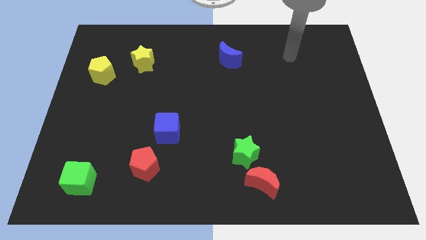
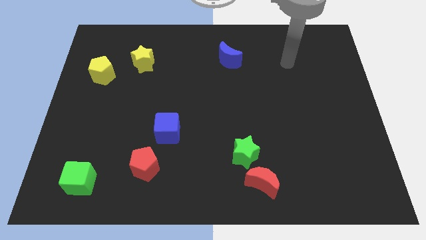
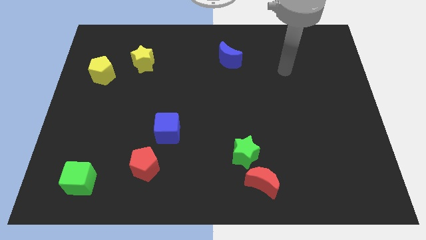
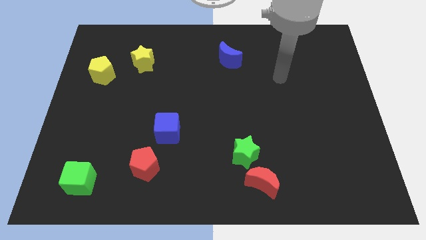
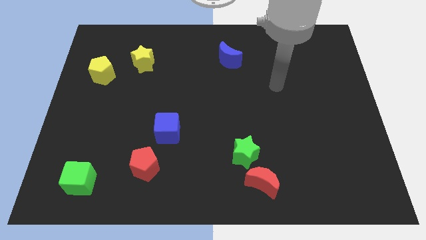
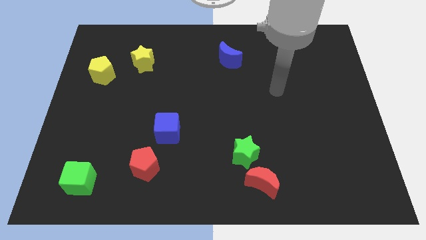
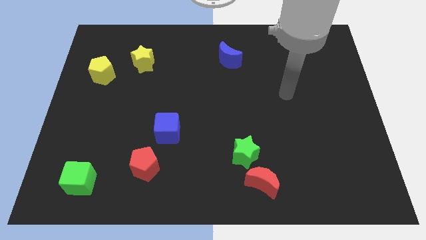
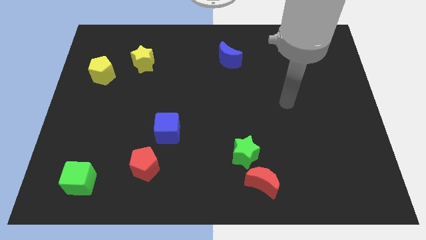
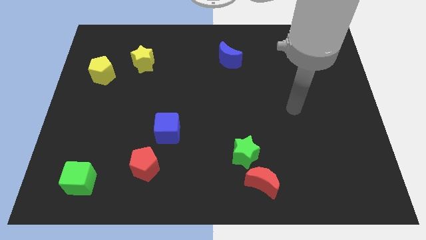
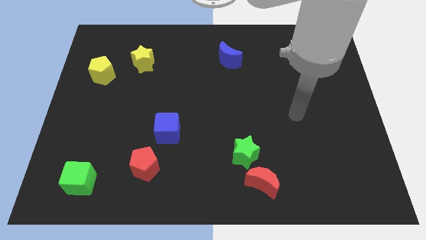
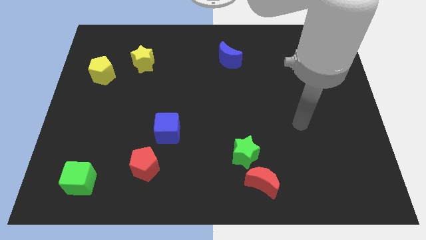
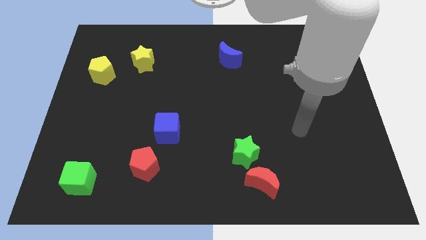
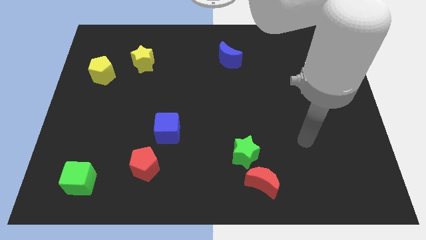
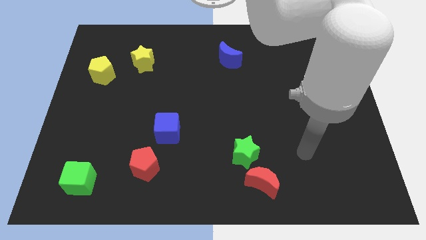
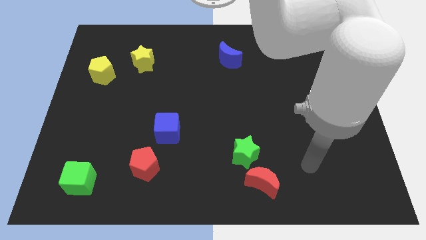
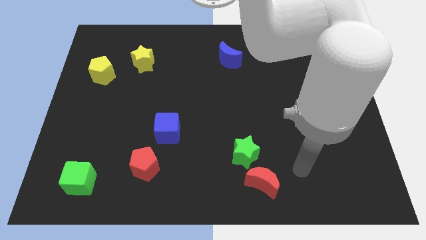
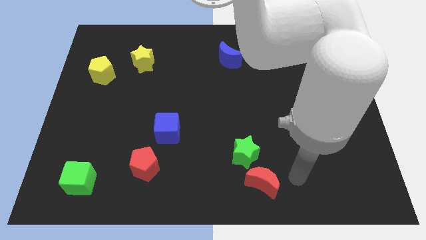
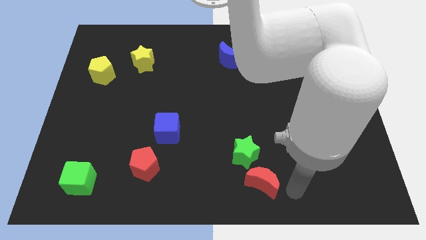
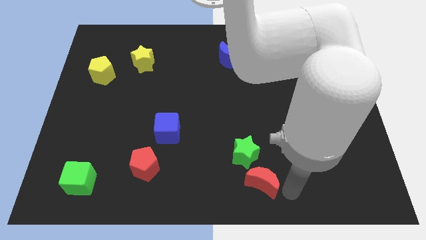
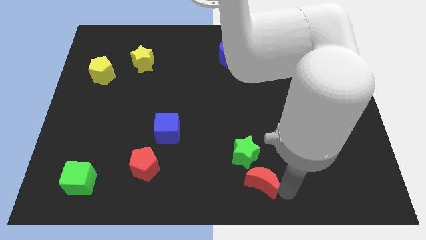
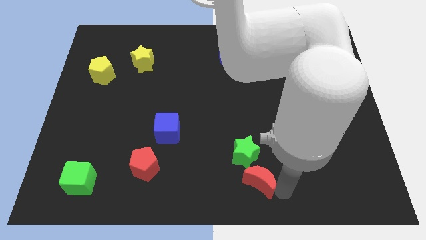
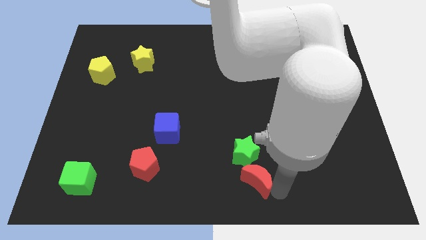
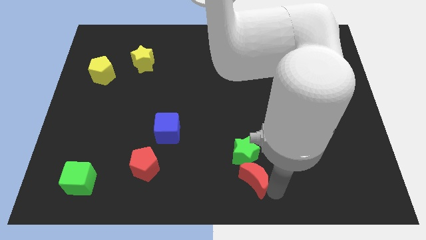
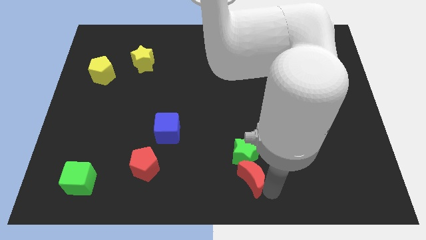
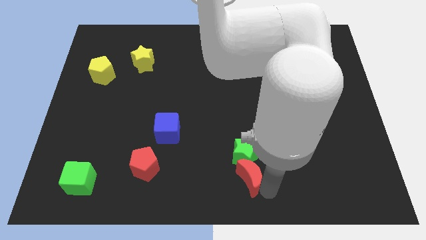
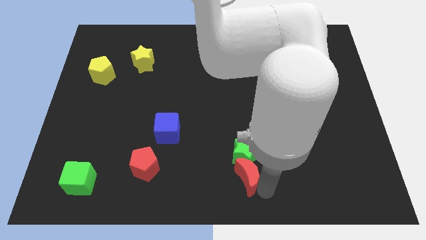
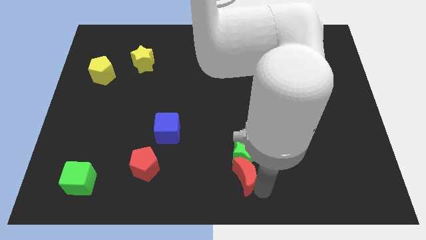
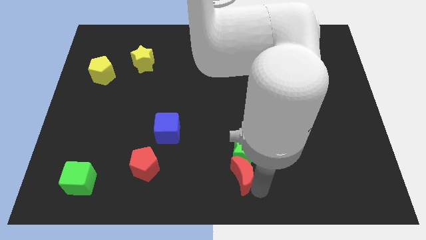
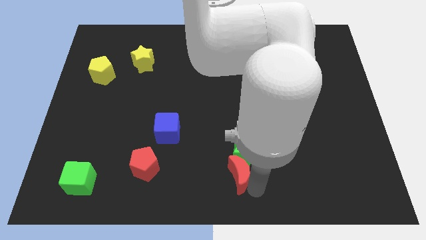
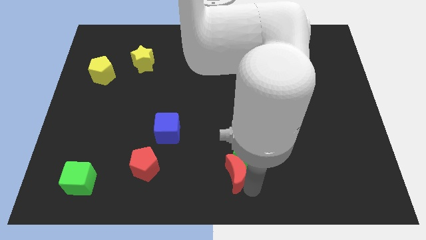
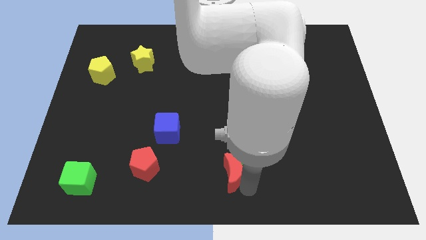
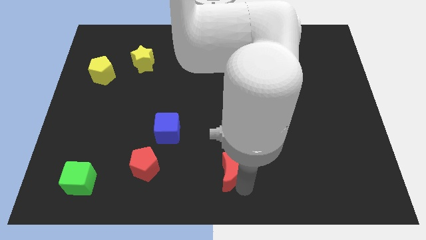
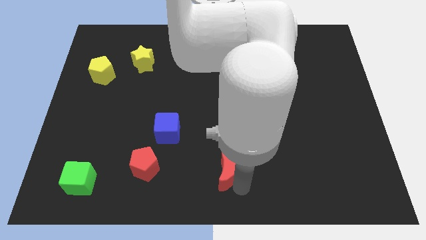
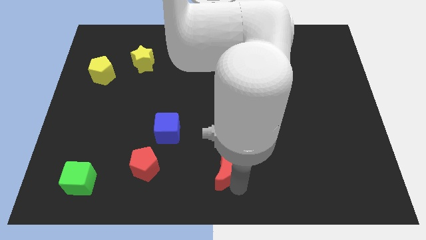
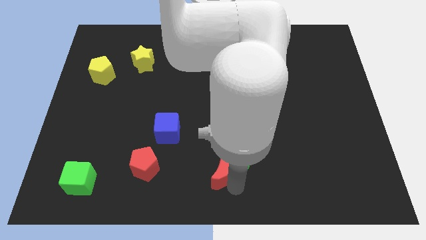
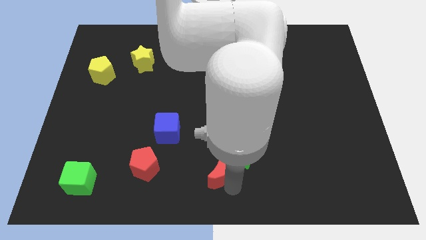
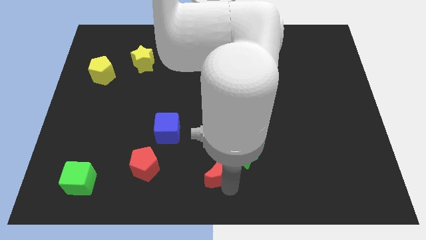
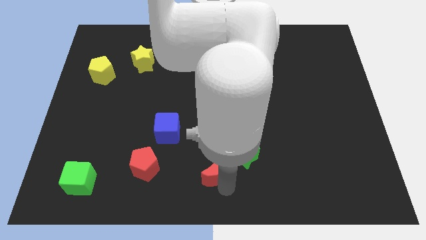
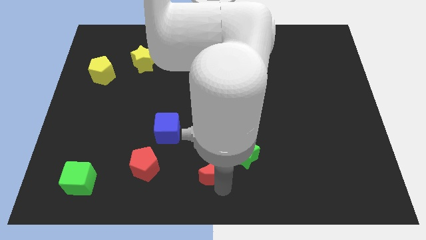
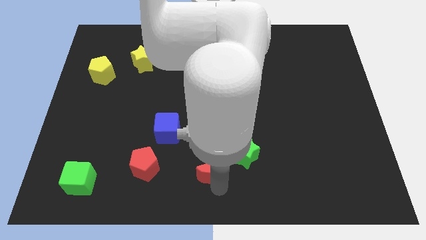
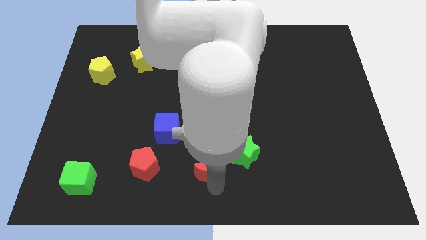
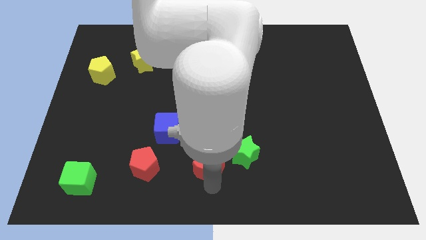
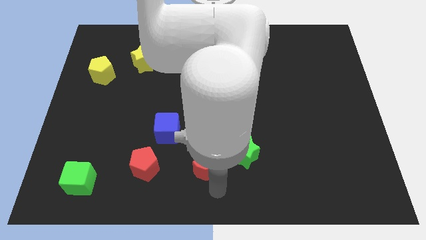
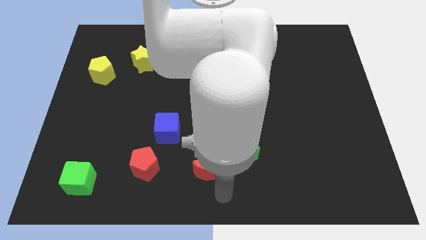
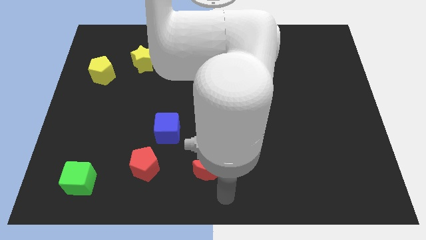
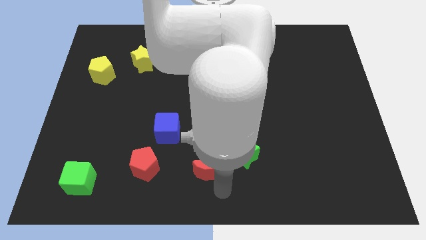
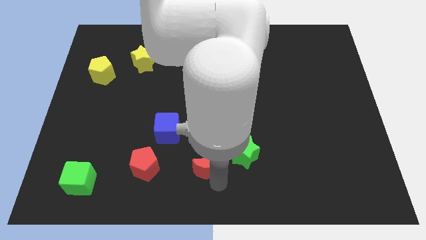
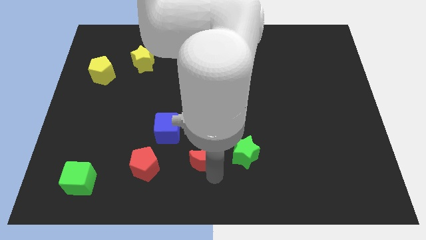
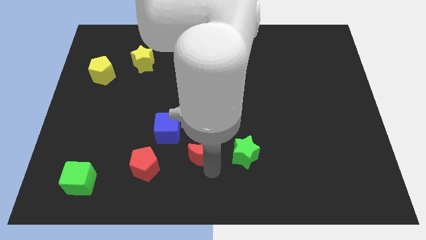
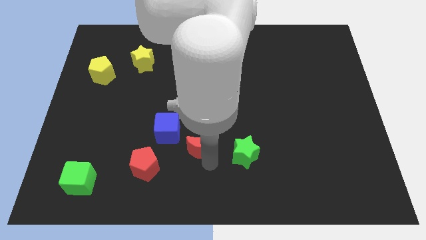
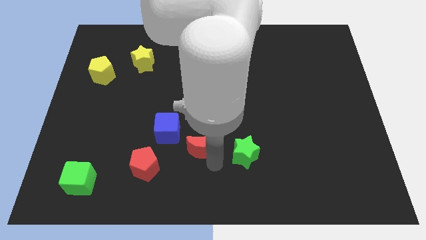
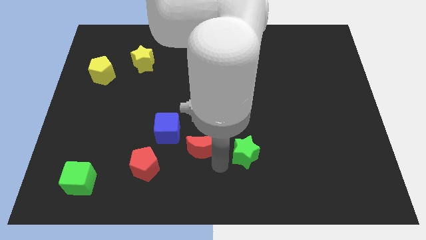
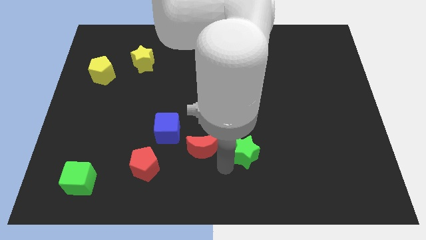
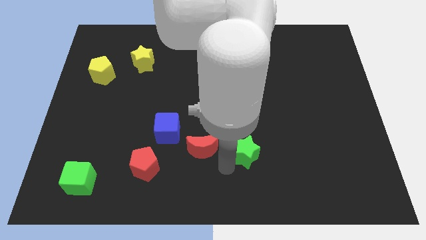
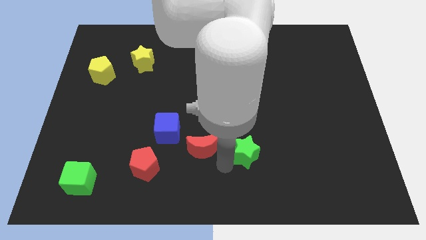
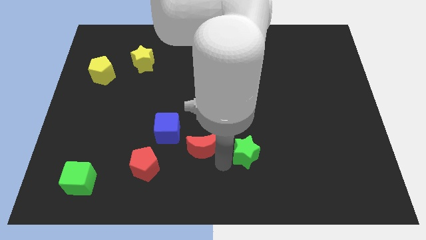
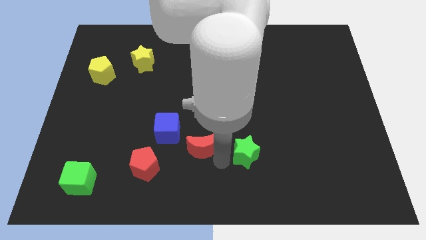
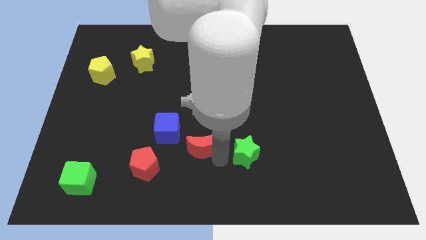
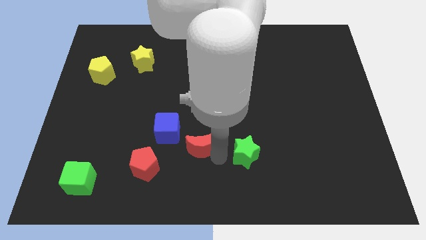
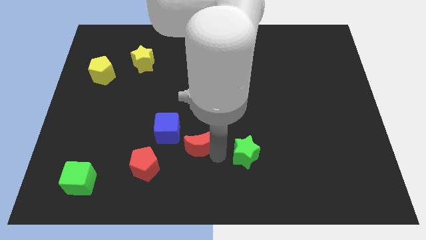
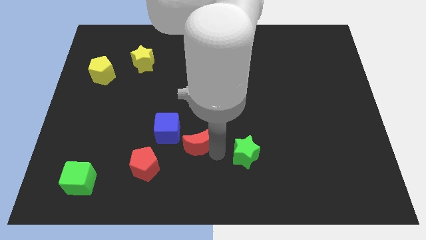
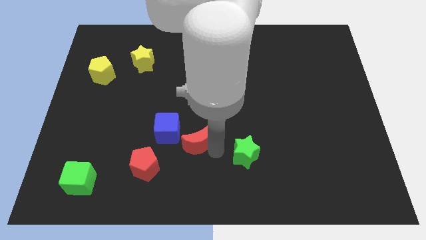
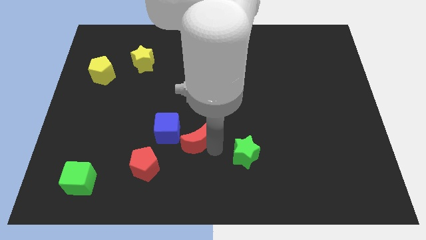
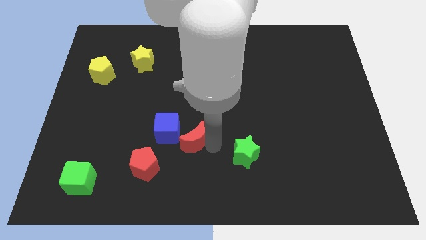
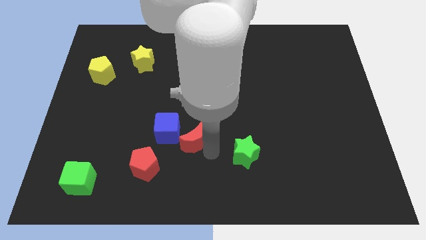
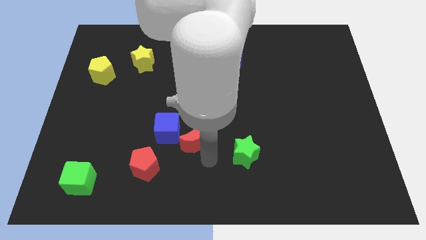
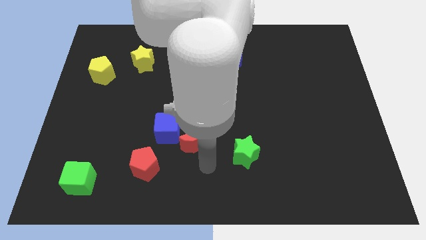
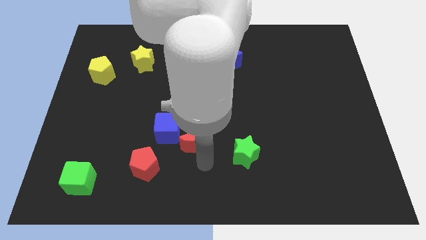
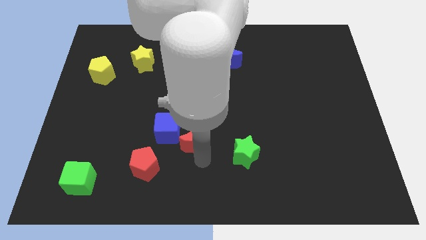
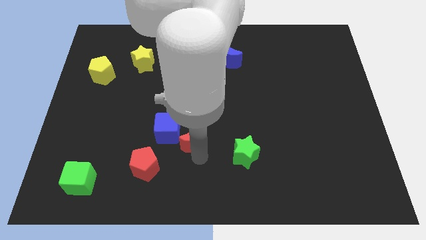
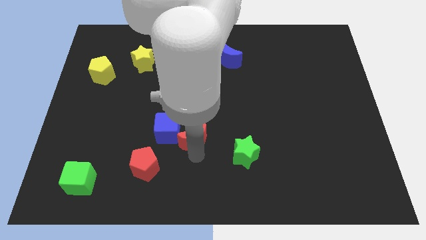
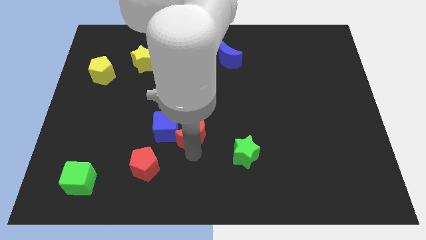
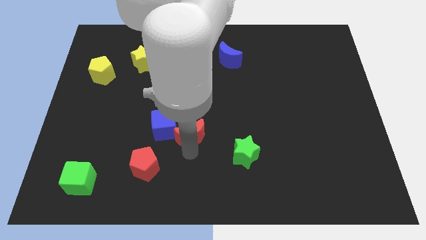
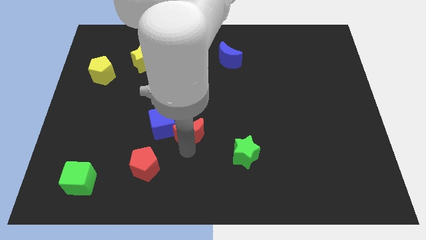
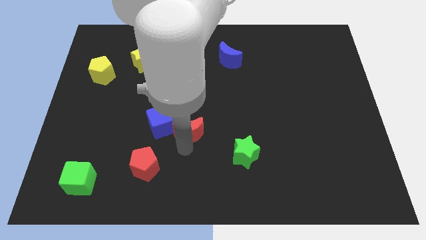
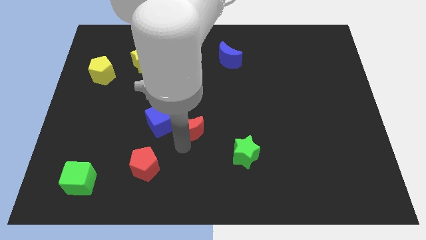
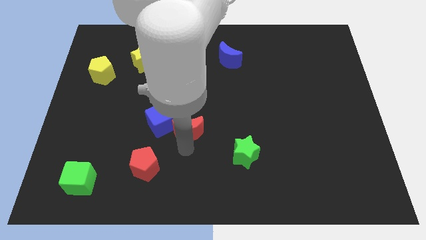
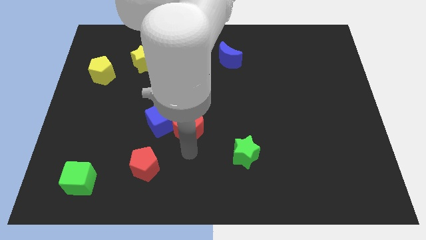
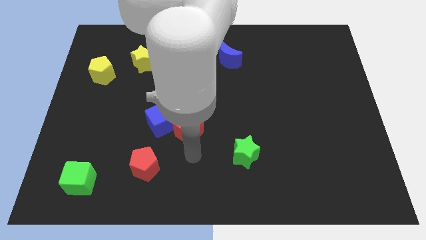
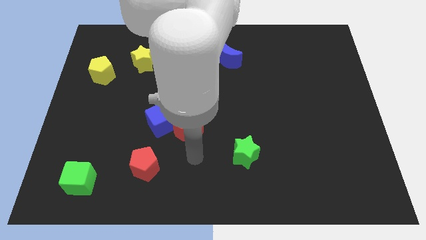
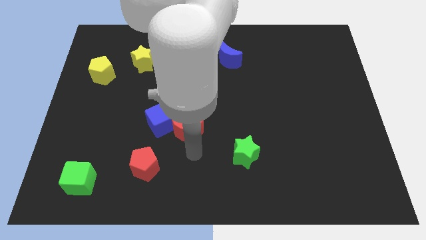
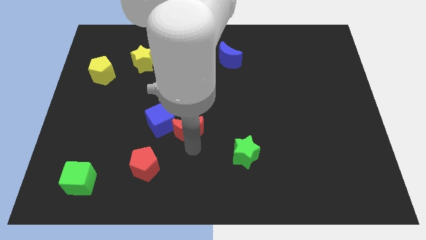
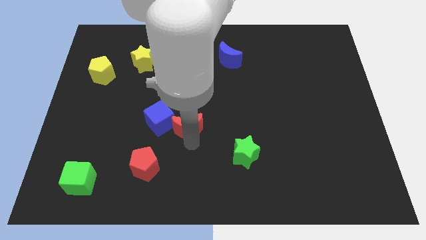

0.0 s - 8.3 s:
move the red moon upwards and then to the left
